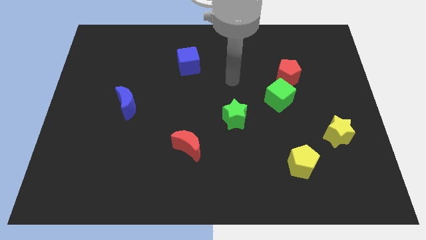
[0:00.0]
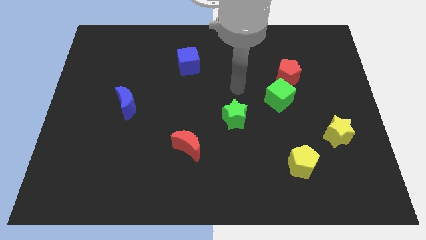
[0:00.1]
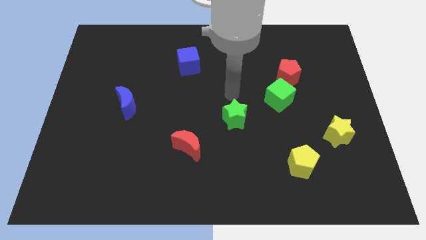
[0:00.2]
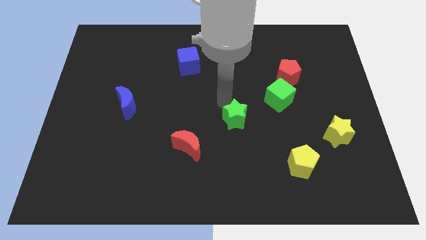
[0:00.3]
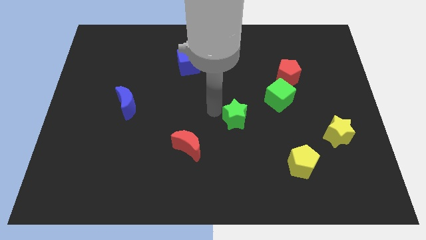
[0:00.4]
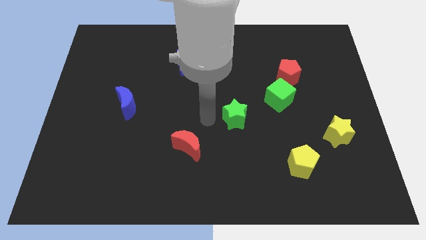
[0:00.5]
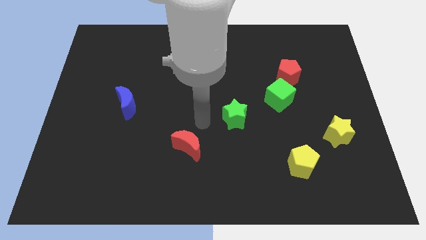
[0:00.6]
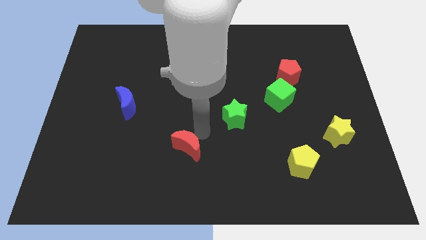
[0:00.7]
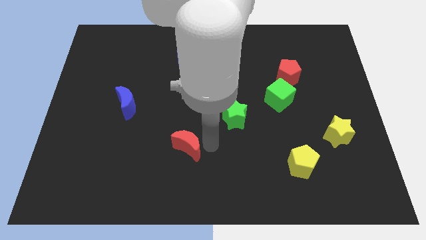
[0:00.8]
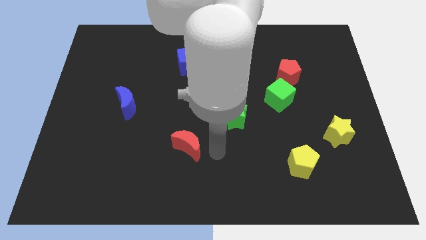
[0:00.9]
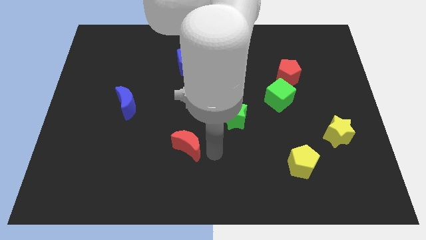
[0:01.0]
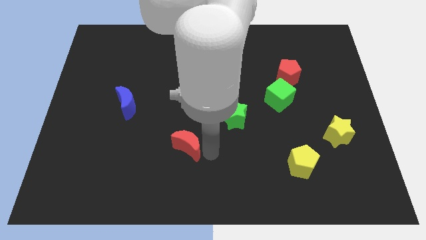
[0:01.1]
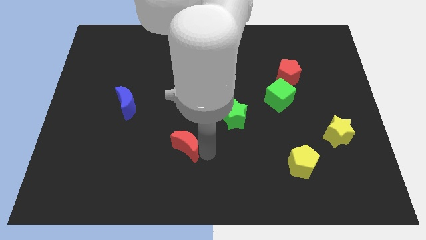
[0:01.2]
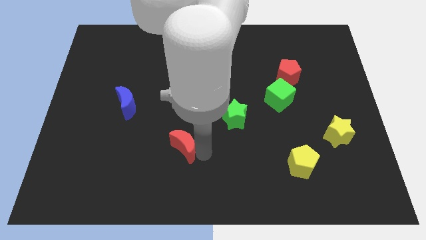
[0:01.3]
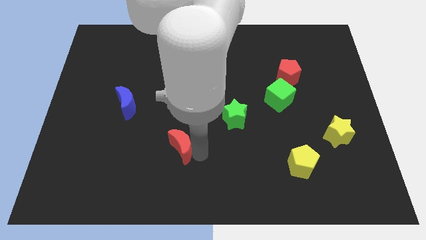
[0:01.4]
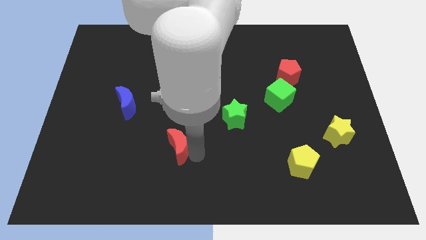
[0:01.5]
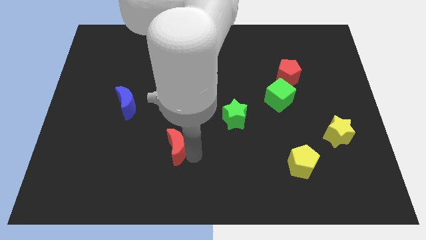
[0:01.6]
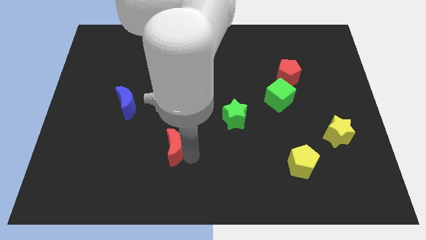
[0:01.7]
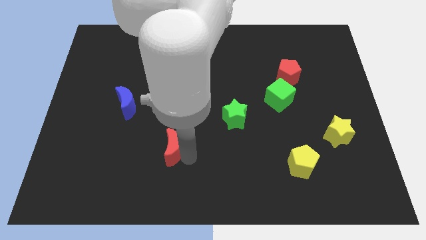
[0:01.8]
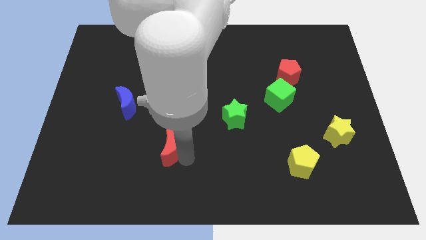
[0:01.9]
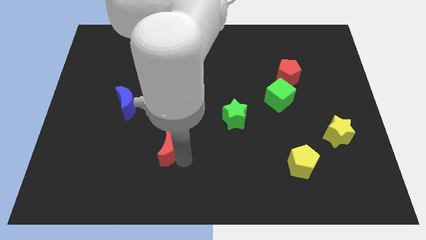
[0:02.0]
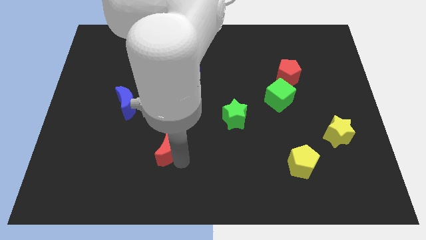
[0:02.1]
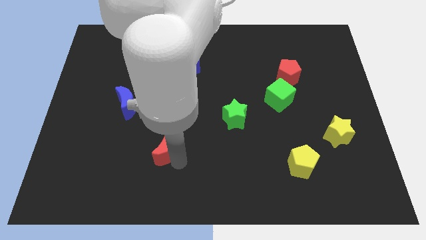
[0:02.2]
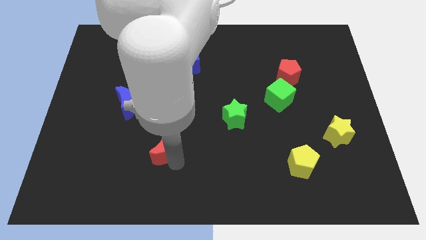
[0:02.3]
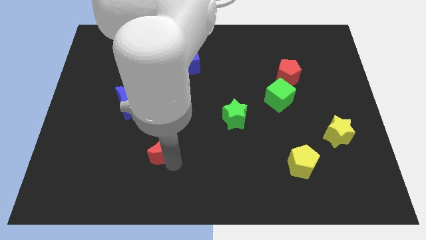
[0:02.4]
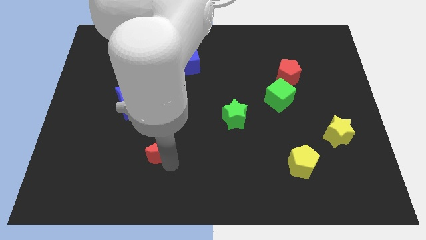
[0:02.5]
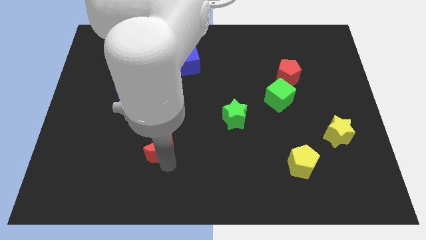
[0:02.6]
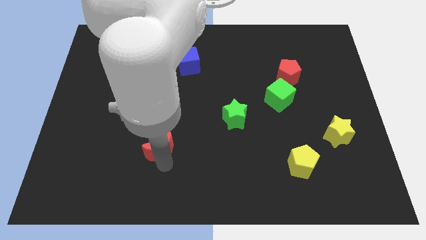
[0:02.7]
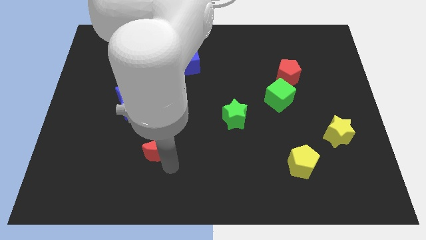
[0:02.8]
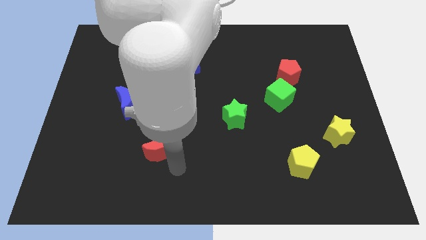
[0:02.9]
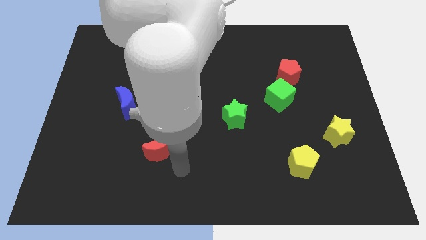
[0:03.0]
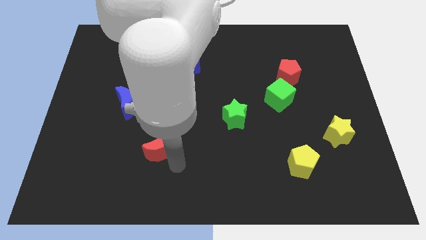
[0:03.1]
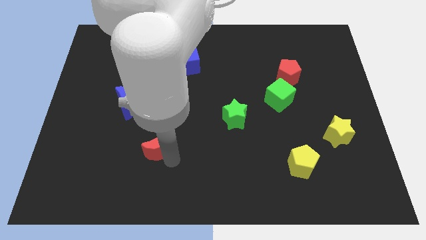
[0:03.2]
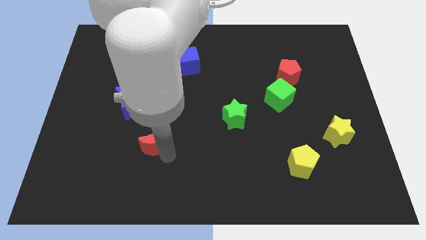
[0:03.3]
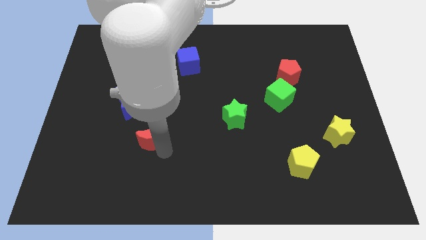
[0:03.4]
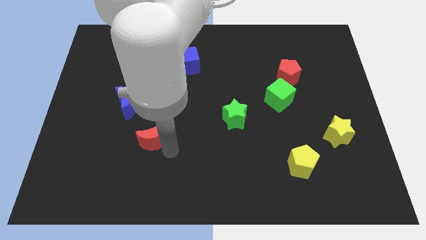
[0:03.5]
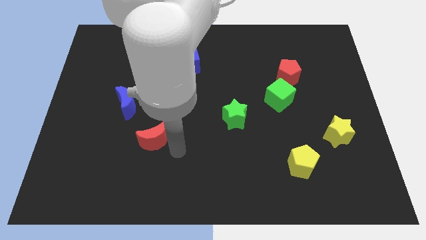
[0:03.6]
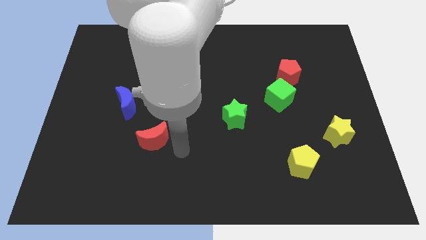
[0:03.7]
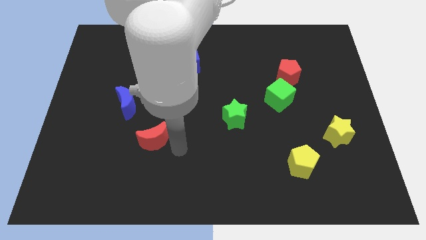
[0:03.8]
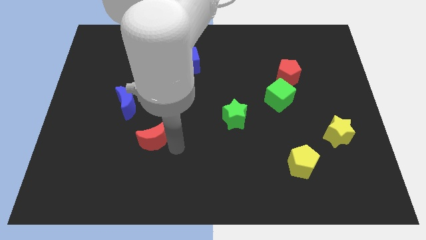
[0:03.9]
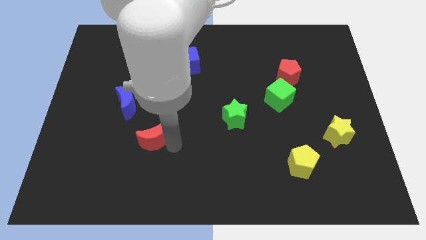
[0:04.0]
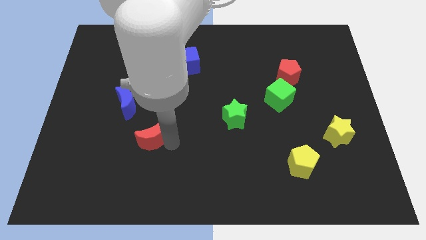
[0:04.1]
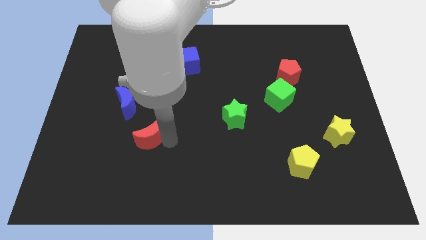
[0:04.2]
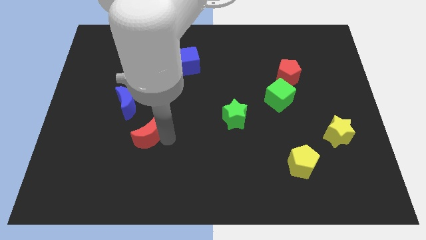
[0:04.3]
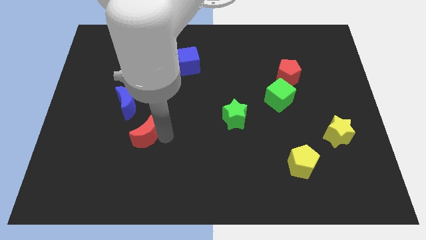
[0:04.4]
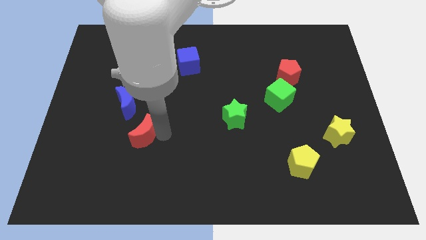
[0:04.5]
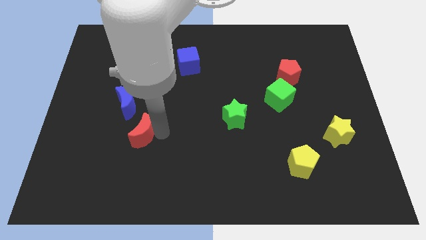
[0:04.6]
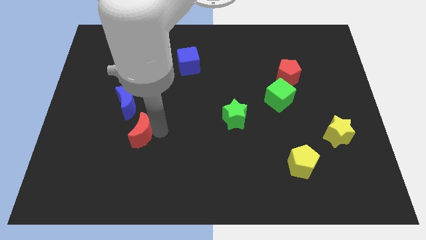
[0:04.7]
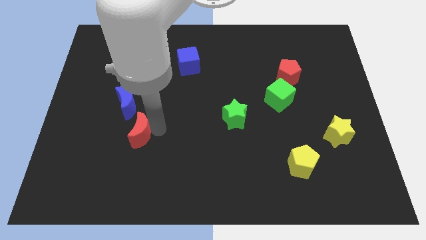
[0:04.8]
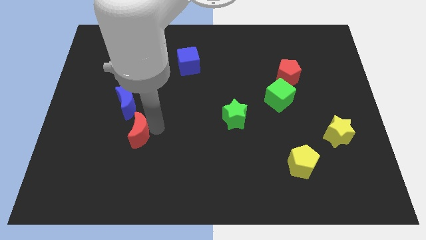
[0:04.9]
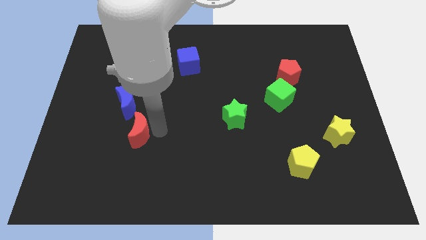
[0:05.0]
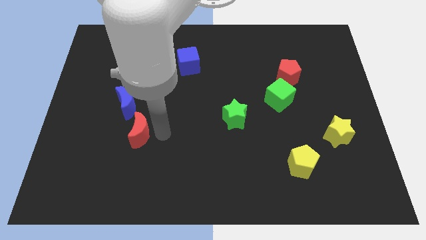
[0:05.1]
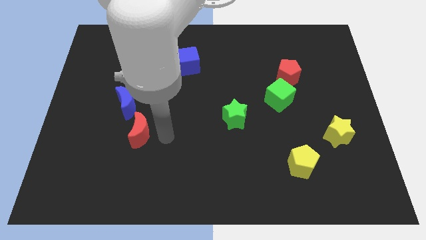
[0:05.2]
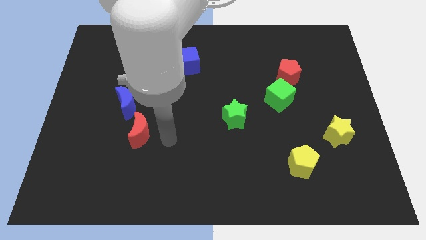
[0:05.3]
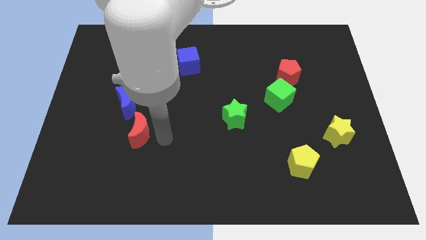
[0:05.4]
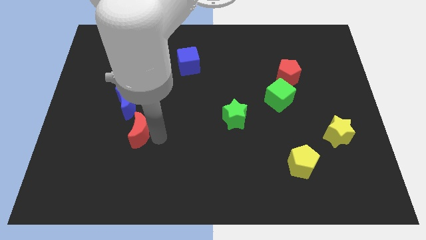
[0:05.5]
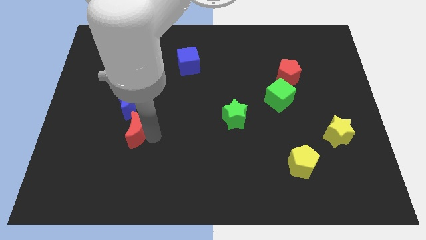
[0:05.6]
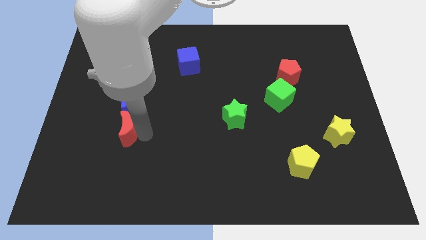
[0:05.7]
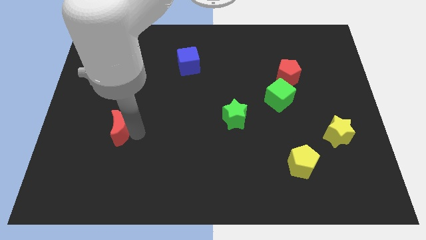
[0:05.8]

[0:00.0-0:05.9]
push the red moon to the bottom left of the blue moon

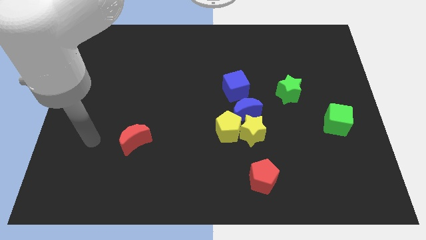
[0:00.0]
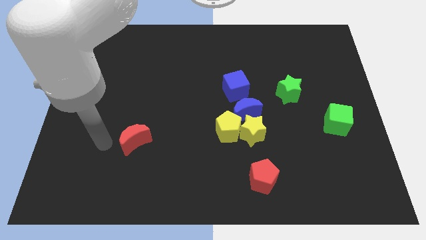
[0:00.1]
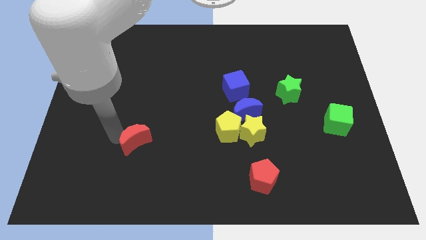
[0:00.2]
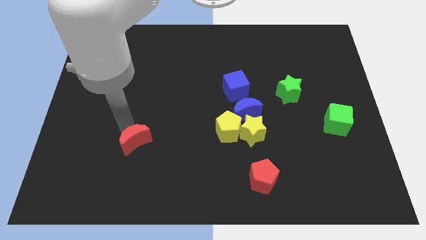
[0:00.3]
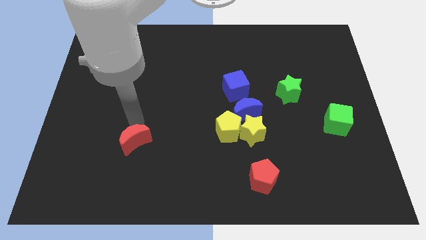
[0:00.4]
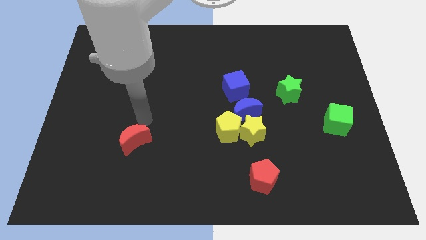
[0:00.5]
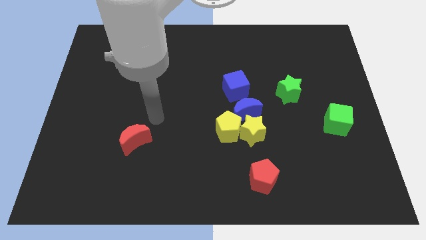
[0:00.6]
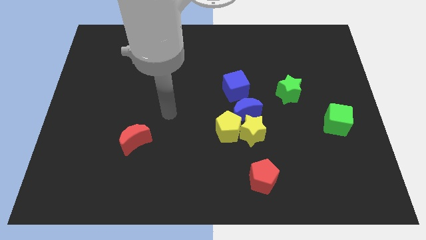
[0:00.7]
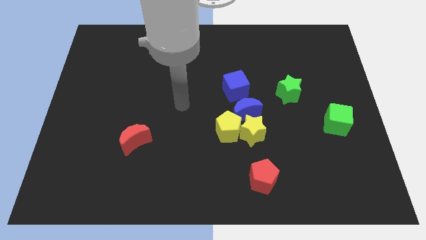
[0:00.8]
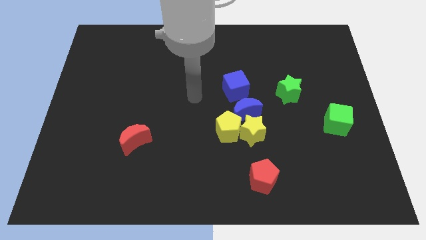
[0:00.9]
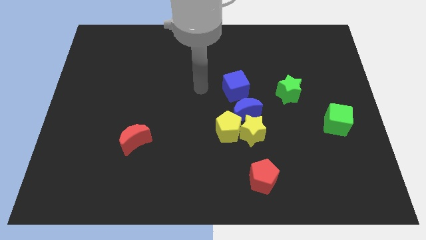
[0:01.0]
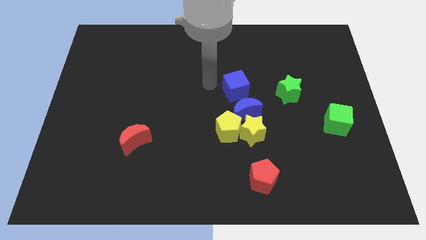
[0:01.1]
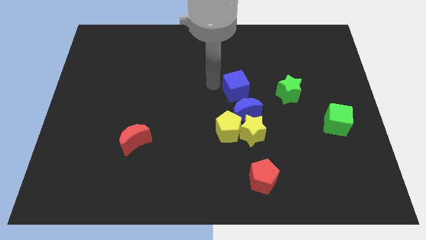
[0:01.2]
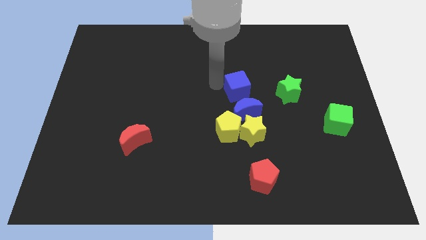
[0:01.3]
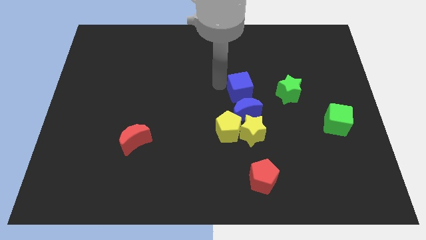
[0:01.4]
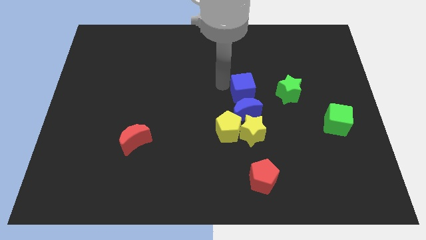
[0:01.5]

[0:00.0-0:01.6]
push the blue cube diagonally up and to the right of the blue moon
